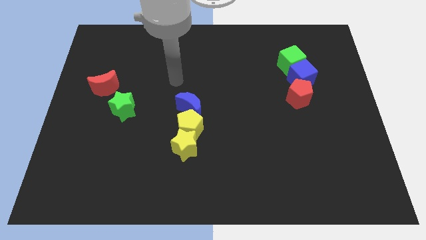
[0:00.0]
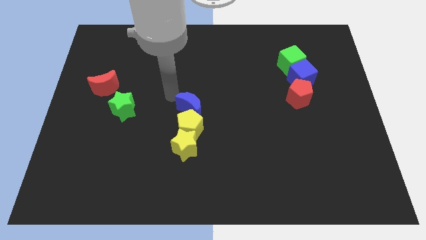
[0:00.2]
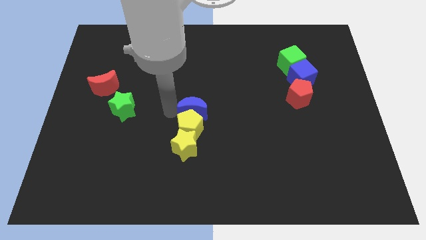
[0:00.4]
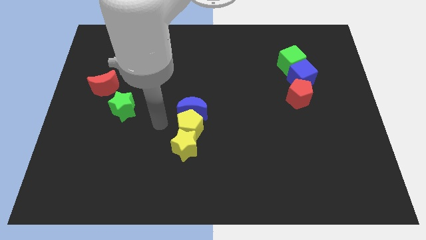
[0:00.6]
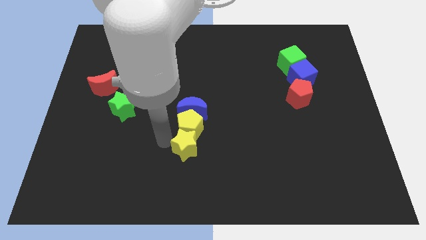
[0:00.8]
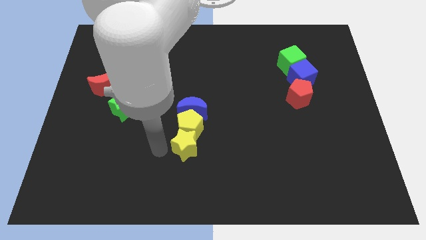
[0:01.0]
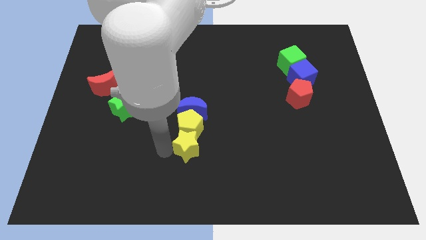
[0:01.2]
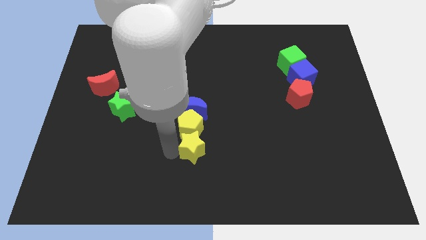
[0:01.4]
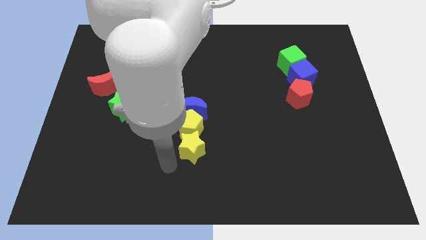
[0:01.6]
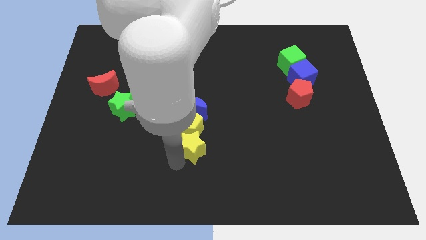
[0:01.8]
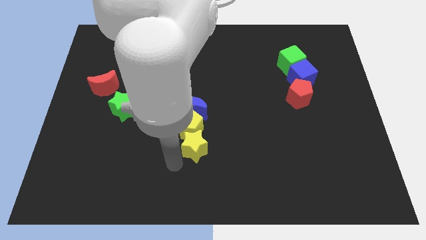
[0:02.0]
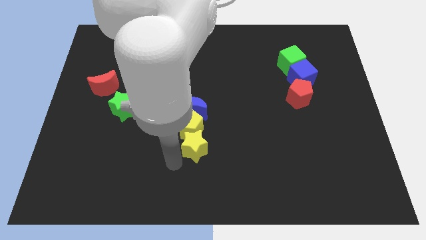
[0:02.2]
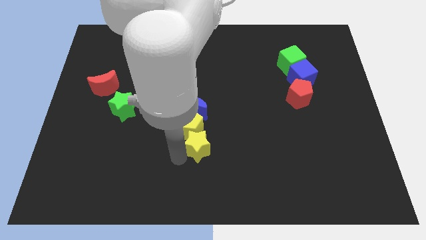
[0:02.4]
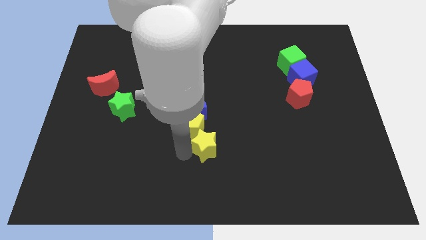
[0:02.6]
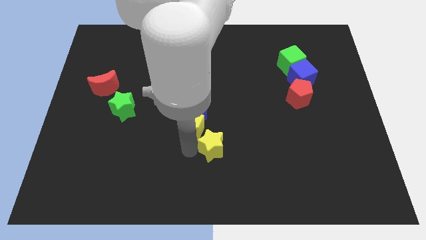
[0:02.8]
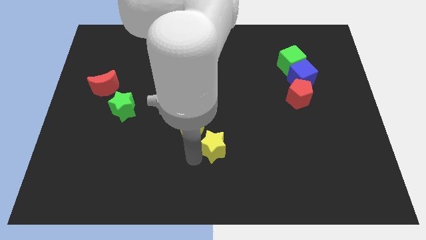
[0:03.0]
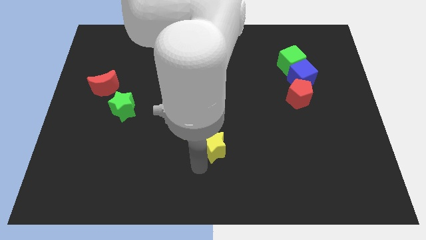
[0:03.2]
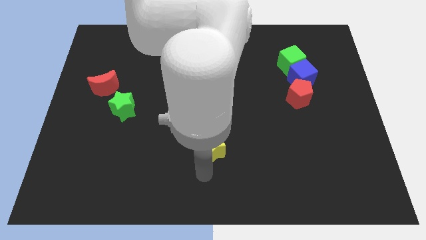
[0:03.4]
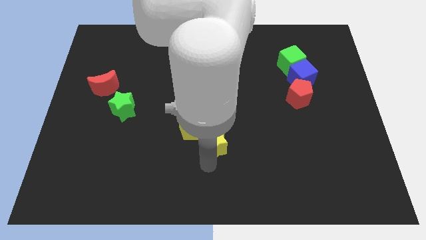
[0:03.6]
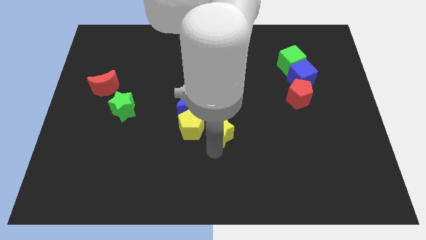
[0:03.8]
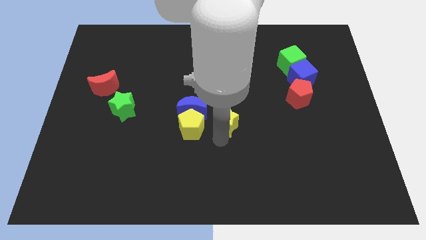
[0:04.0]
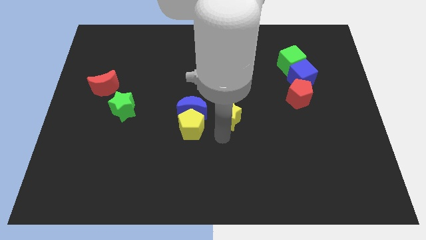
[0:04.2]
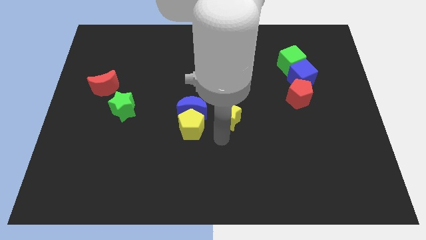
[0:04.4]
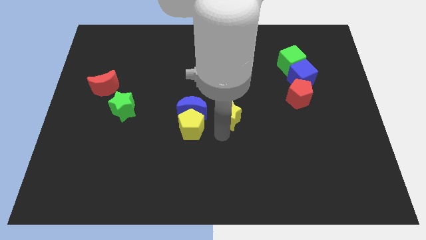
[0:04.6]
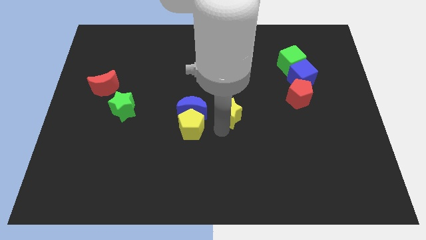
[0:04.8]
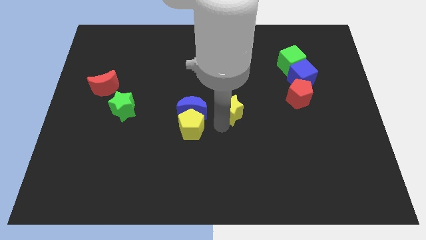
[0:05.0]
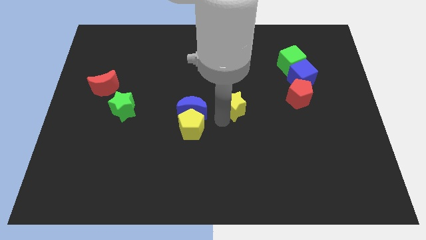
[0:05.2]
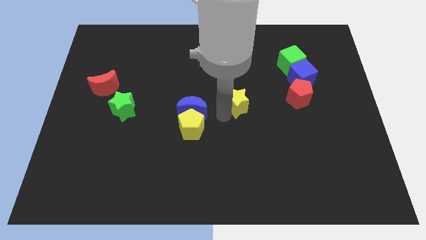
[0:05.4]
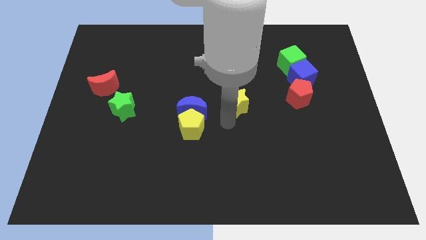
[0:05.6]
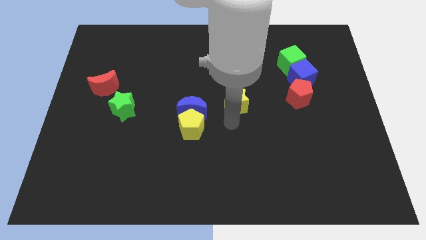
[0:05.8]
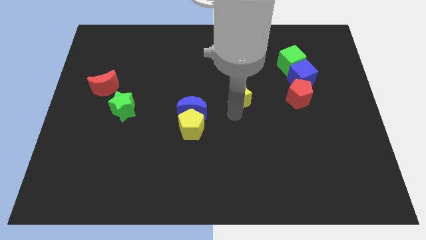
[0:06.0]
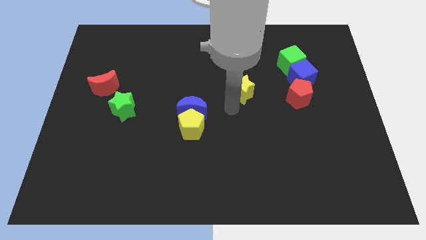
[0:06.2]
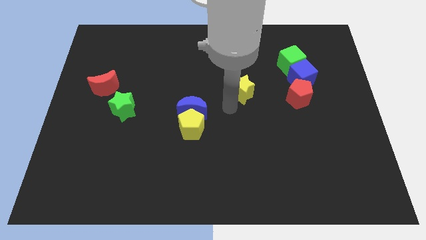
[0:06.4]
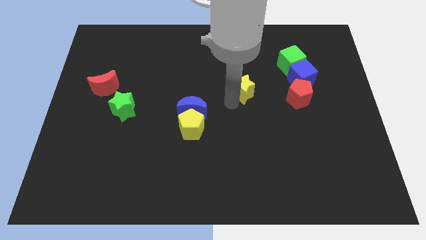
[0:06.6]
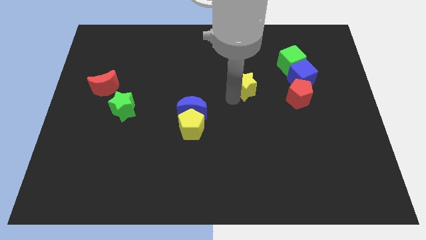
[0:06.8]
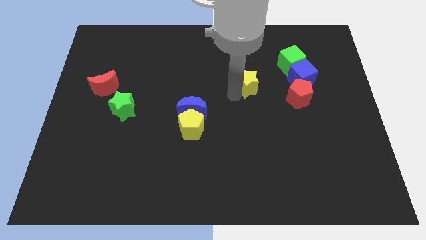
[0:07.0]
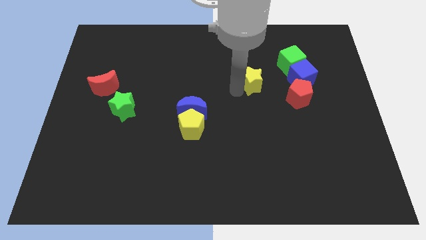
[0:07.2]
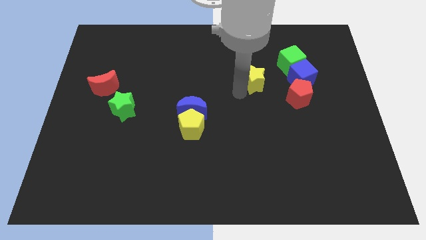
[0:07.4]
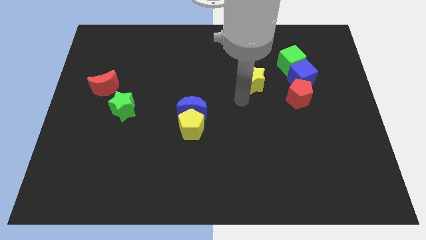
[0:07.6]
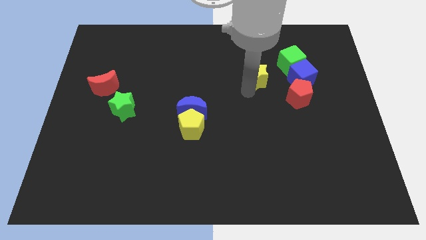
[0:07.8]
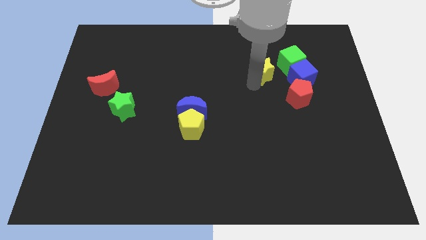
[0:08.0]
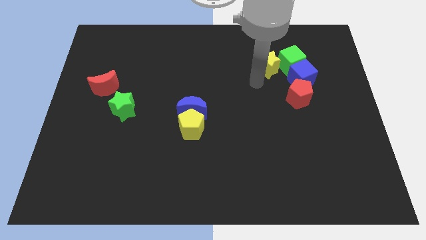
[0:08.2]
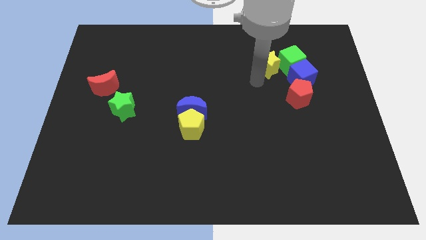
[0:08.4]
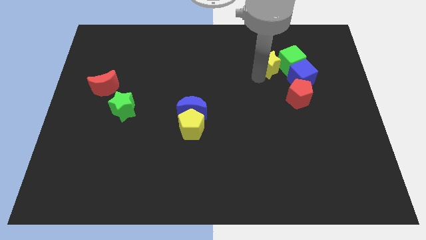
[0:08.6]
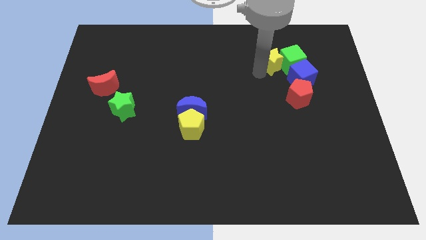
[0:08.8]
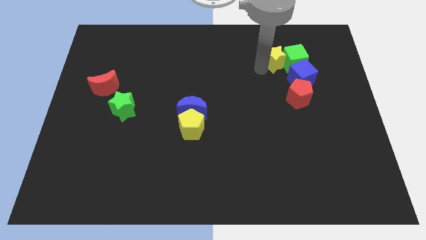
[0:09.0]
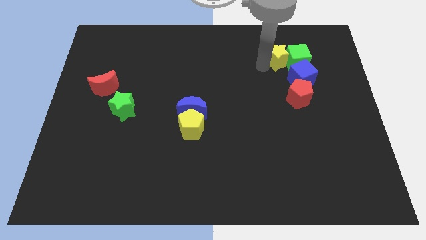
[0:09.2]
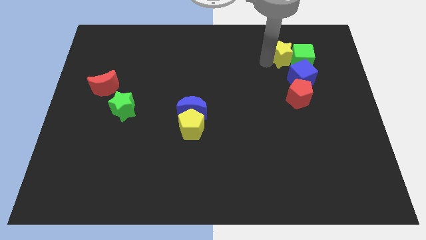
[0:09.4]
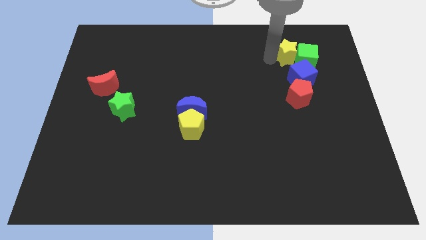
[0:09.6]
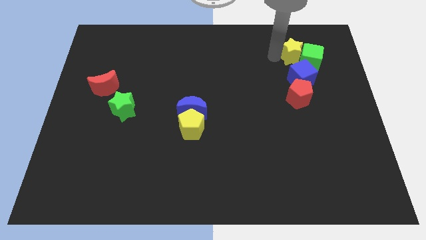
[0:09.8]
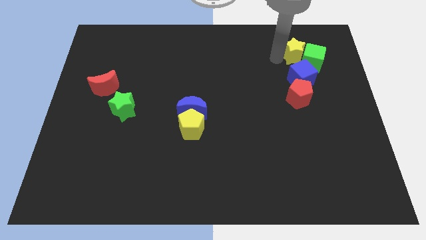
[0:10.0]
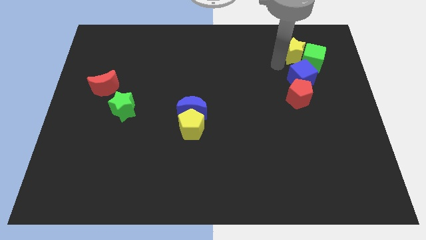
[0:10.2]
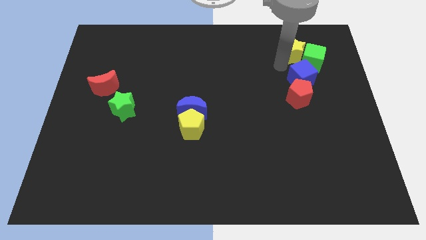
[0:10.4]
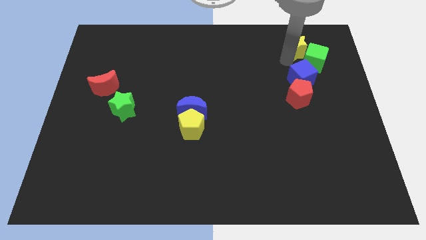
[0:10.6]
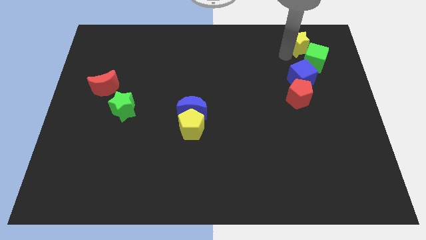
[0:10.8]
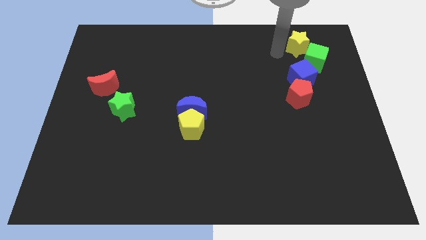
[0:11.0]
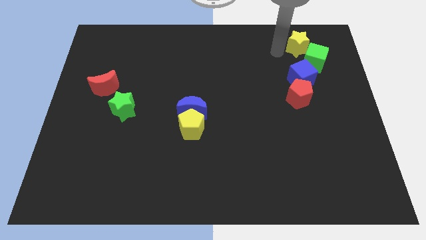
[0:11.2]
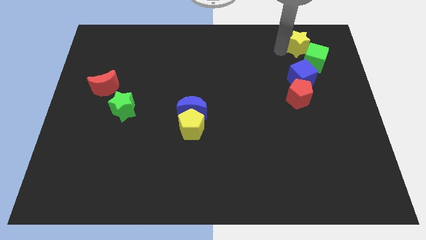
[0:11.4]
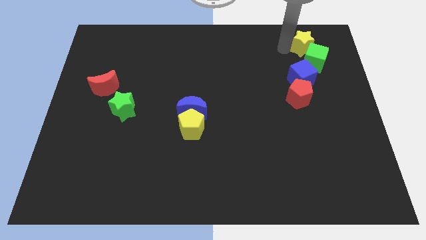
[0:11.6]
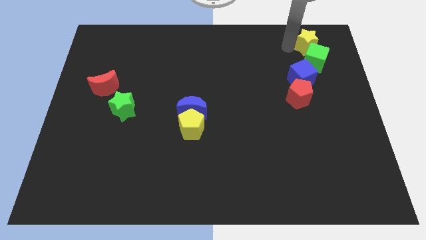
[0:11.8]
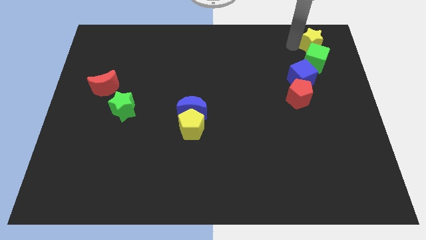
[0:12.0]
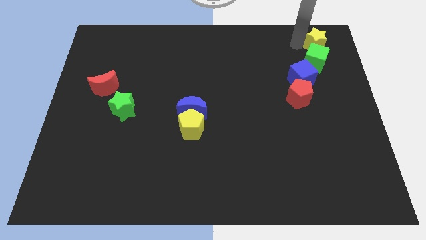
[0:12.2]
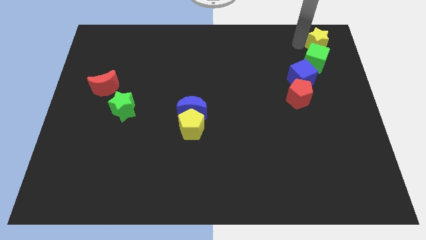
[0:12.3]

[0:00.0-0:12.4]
push the yellow star to the top right corner
